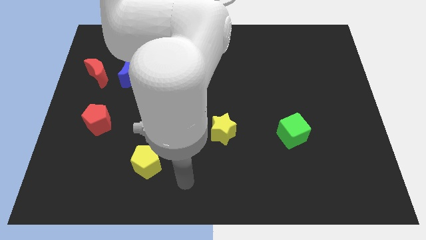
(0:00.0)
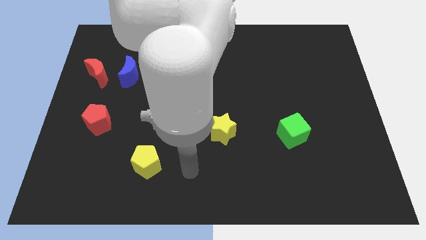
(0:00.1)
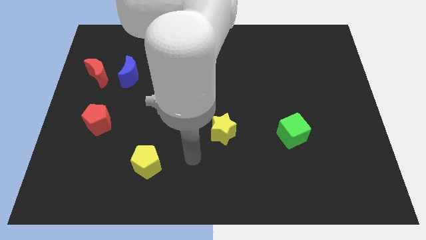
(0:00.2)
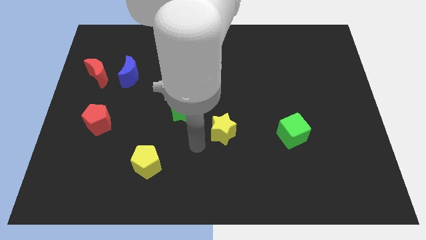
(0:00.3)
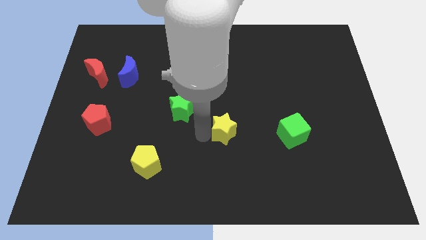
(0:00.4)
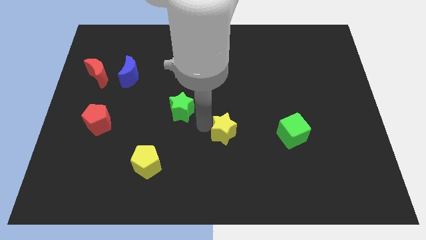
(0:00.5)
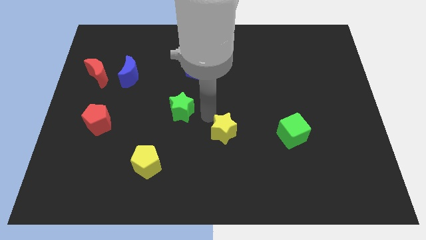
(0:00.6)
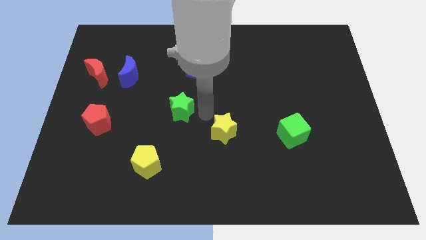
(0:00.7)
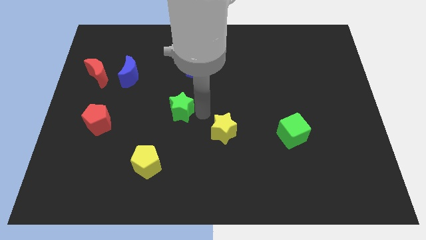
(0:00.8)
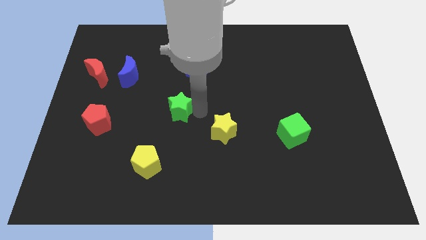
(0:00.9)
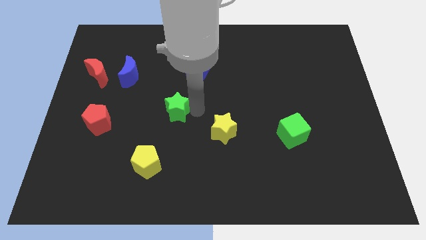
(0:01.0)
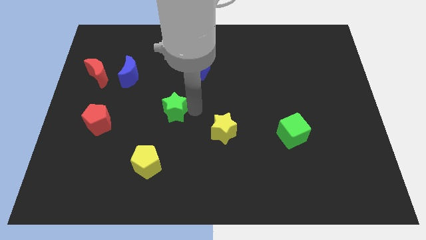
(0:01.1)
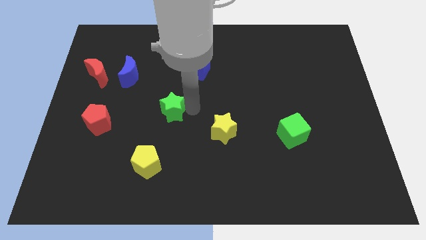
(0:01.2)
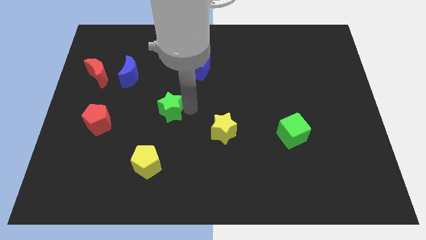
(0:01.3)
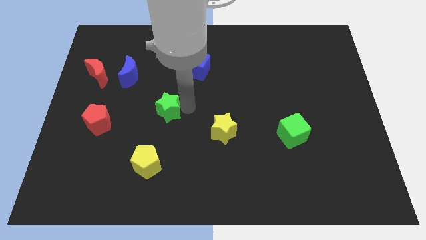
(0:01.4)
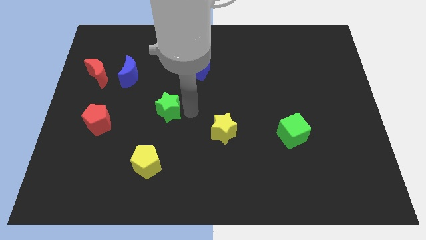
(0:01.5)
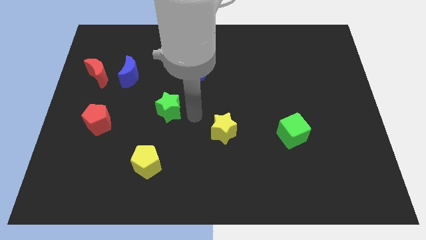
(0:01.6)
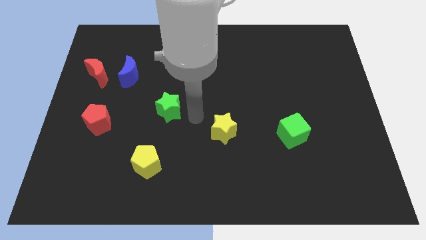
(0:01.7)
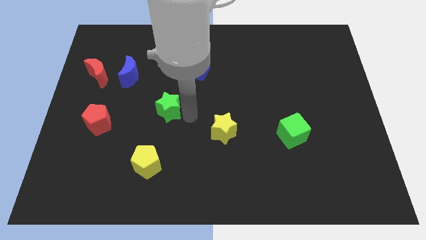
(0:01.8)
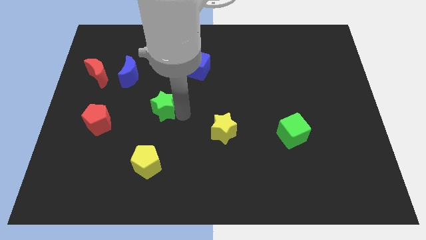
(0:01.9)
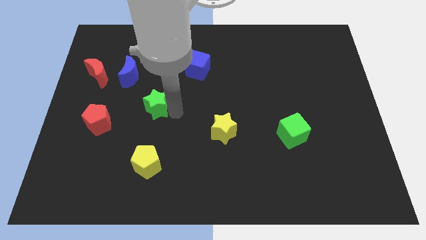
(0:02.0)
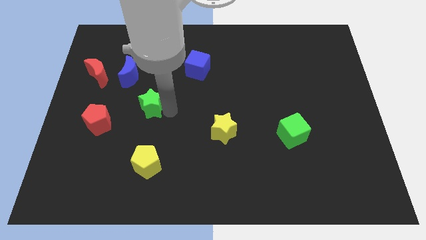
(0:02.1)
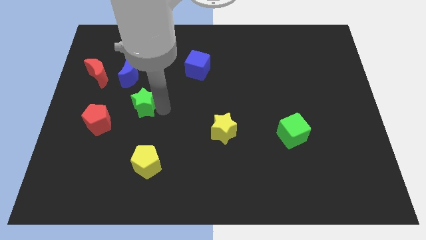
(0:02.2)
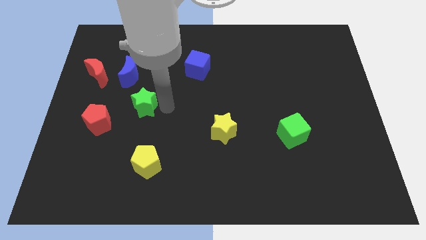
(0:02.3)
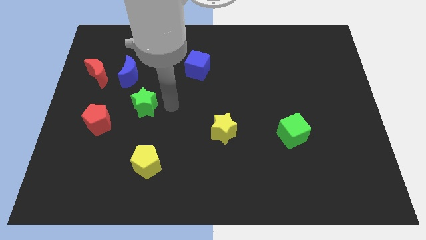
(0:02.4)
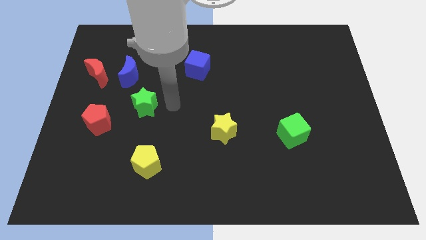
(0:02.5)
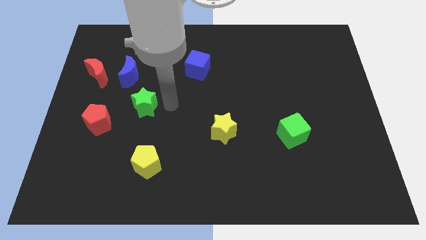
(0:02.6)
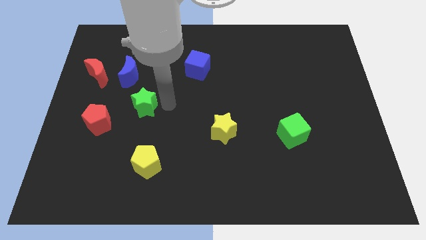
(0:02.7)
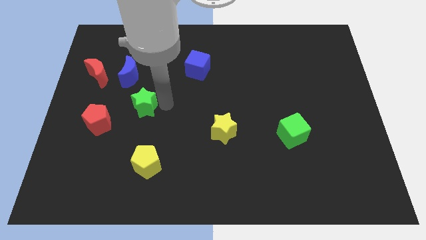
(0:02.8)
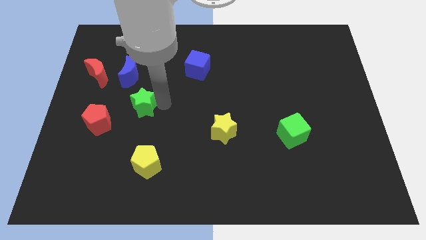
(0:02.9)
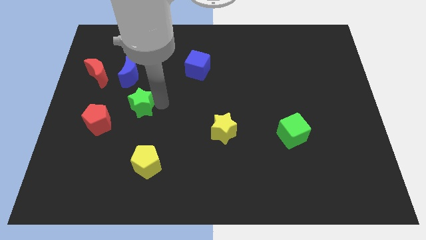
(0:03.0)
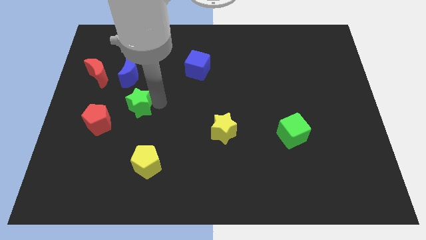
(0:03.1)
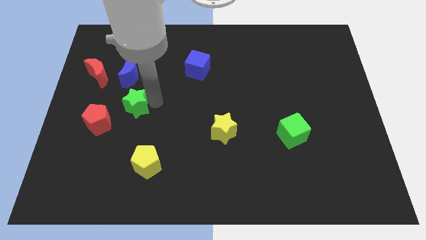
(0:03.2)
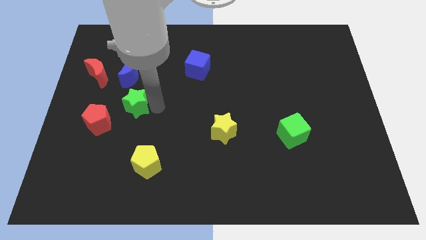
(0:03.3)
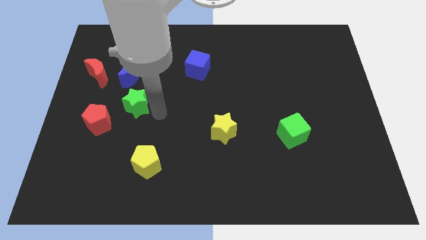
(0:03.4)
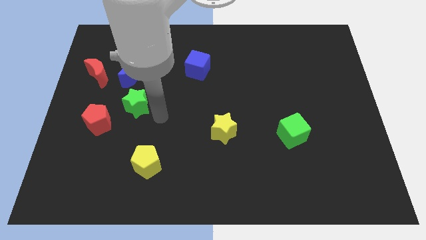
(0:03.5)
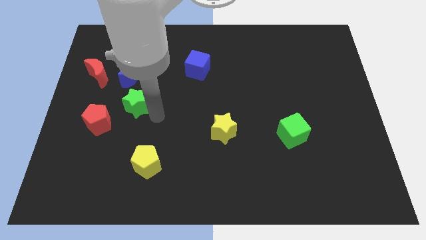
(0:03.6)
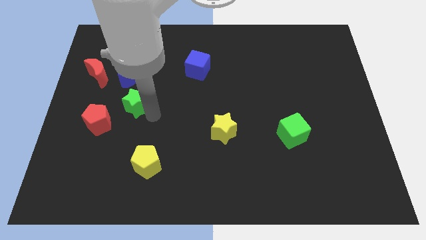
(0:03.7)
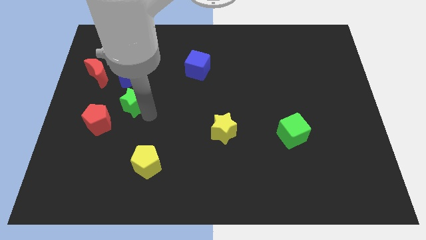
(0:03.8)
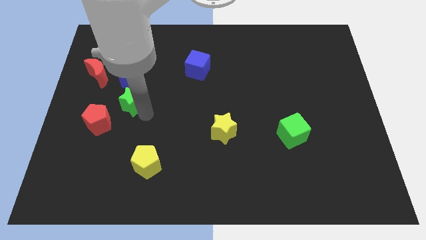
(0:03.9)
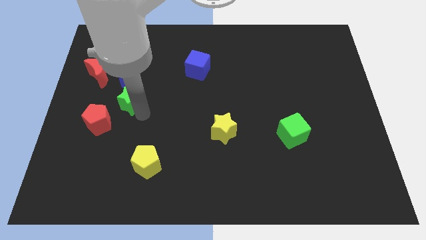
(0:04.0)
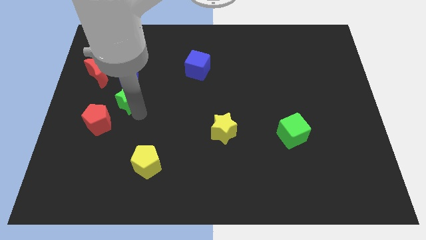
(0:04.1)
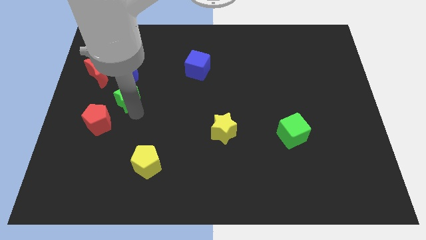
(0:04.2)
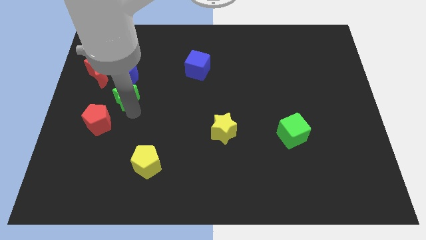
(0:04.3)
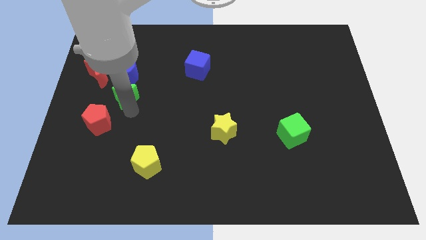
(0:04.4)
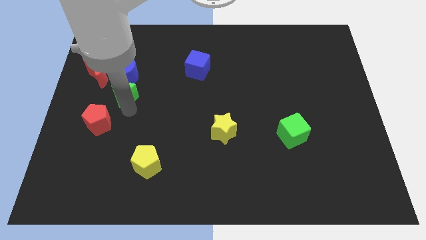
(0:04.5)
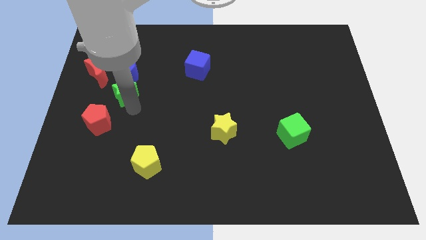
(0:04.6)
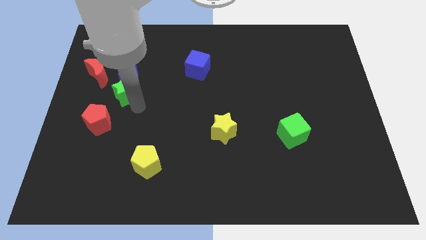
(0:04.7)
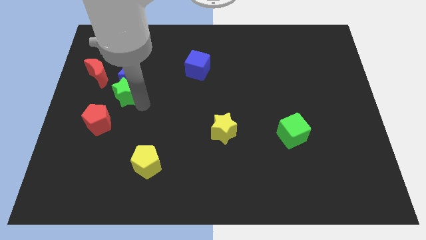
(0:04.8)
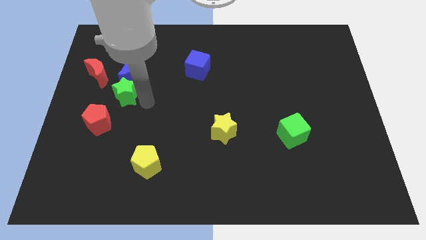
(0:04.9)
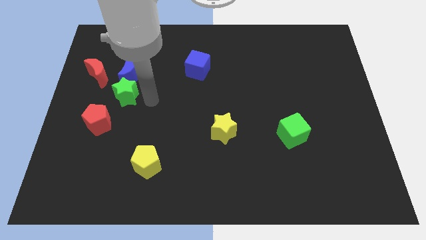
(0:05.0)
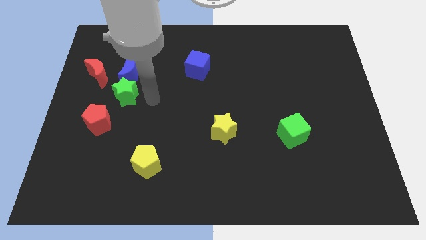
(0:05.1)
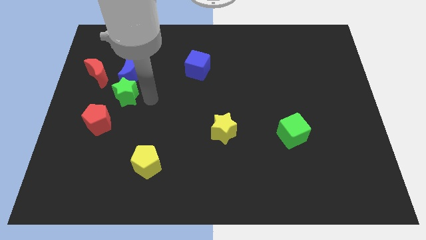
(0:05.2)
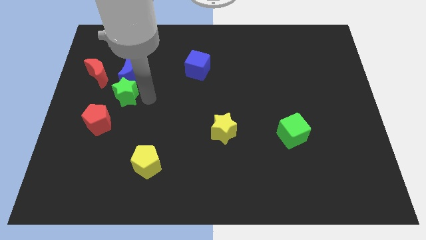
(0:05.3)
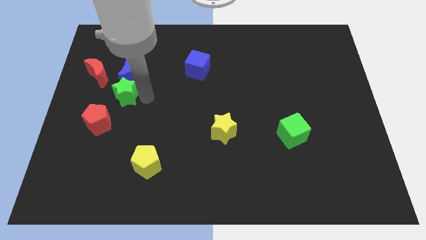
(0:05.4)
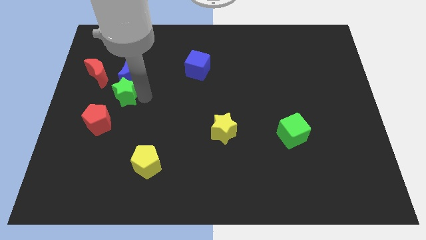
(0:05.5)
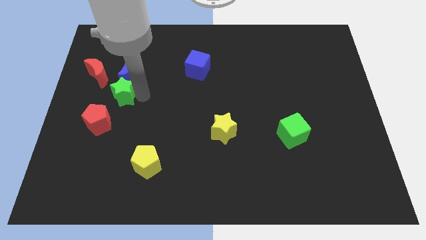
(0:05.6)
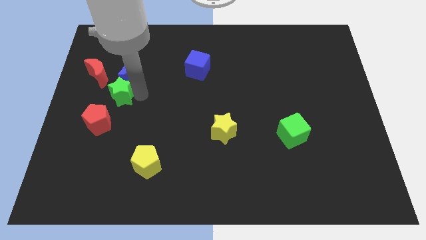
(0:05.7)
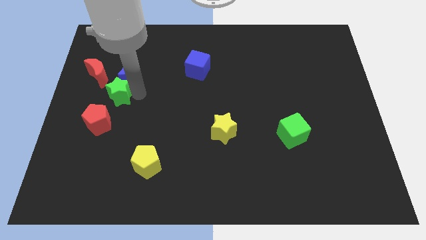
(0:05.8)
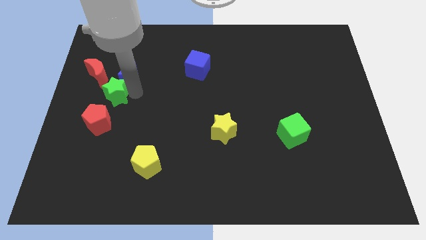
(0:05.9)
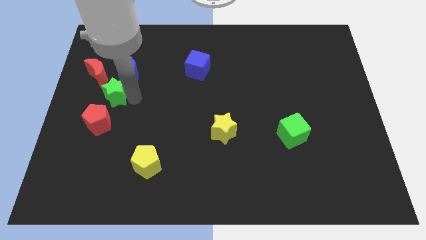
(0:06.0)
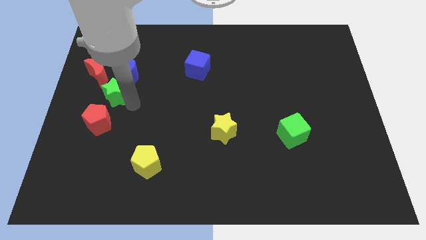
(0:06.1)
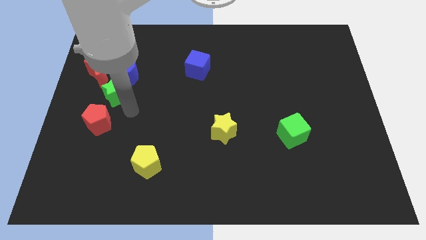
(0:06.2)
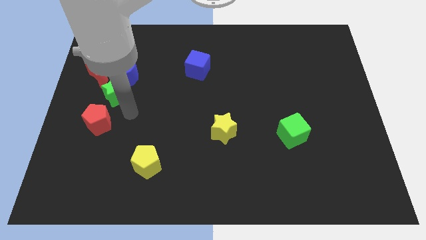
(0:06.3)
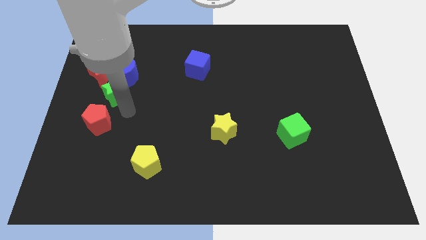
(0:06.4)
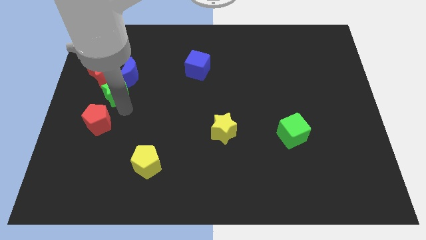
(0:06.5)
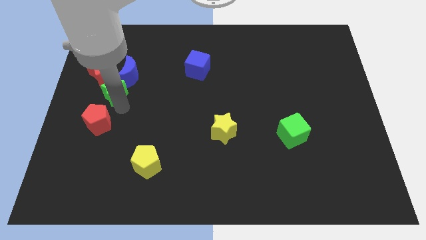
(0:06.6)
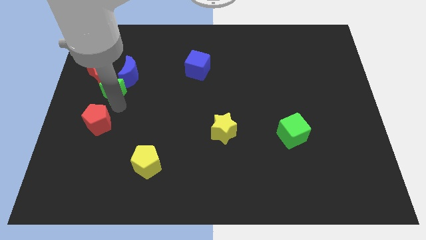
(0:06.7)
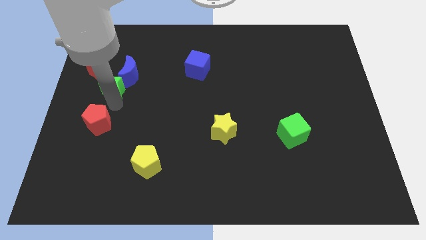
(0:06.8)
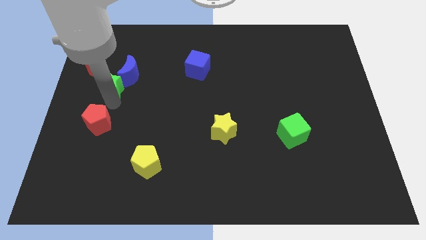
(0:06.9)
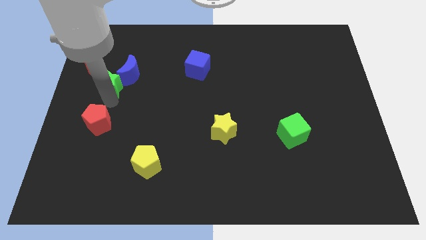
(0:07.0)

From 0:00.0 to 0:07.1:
push the green star close to the red moon
